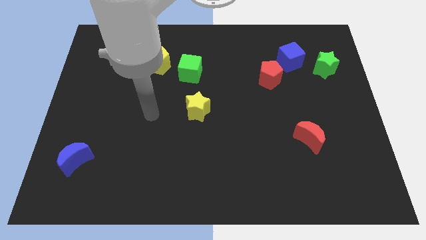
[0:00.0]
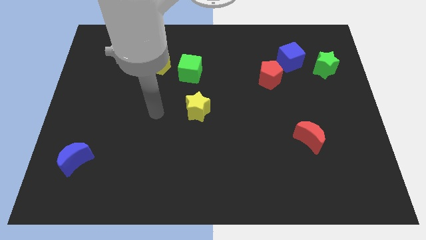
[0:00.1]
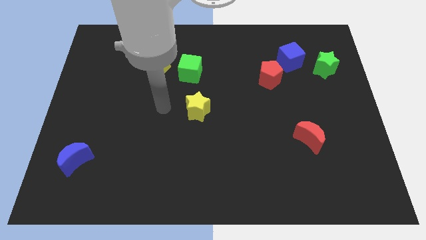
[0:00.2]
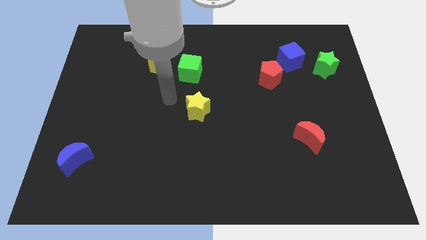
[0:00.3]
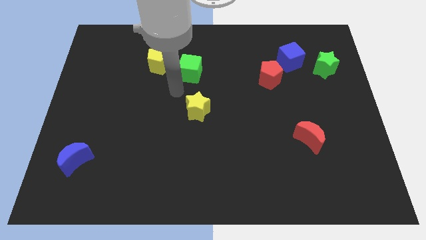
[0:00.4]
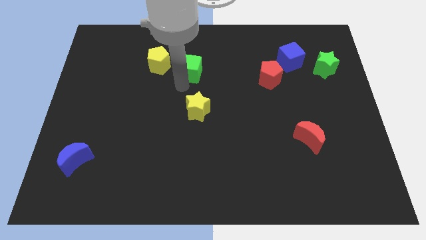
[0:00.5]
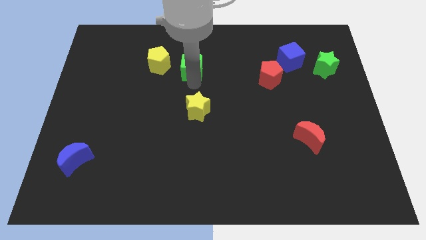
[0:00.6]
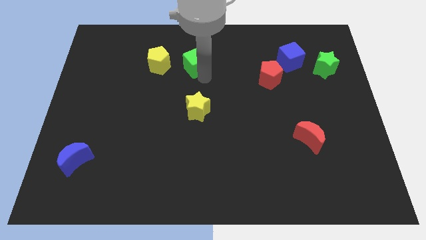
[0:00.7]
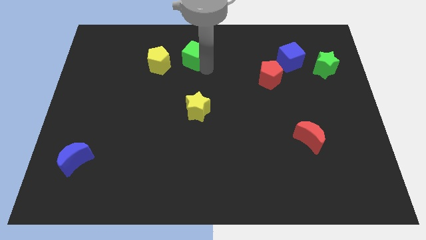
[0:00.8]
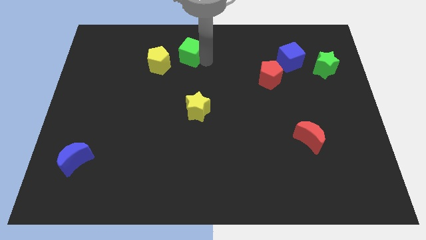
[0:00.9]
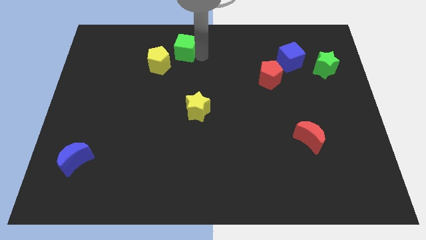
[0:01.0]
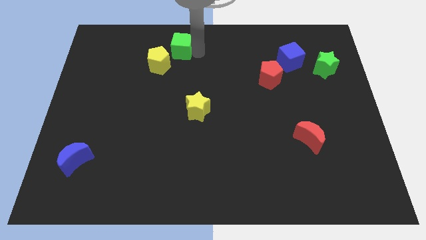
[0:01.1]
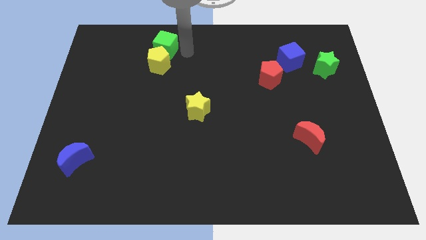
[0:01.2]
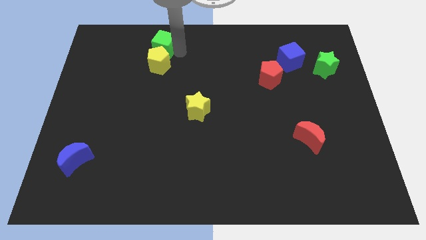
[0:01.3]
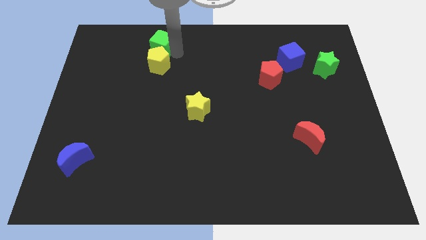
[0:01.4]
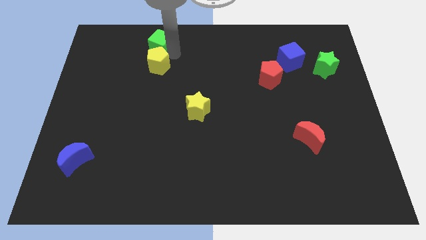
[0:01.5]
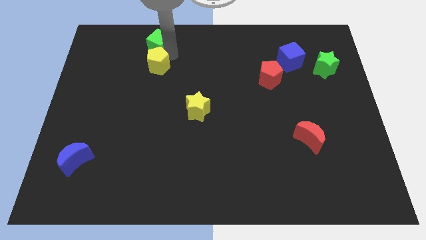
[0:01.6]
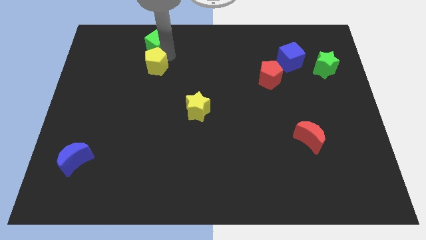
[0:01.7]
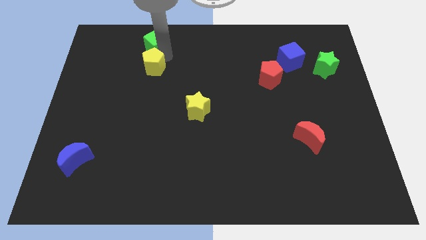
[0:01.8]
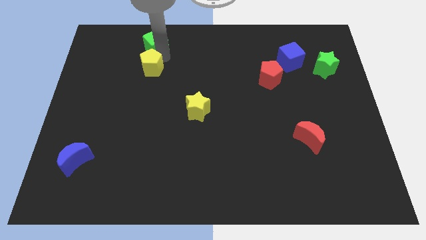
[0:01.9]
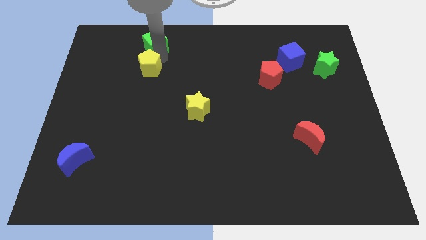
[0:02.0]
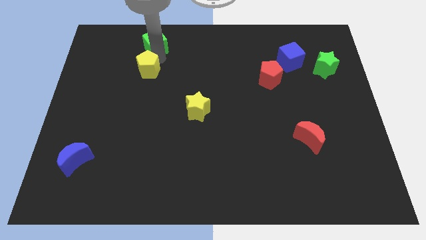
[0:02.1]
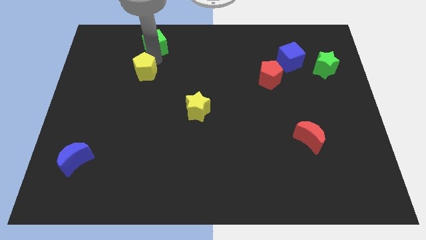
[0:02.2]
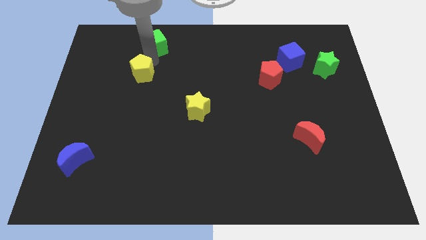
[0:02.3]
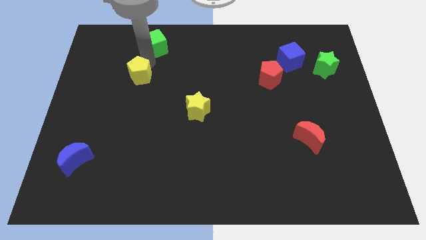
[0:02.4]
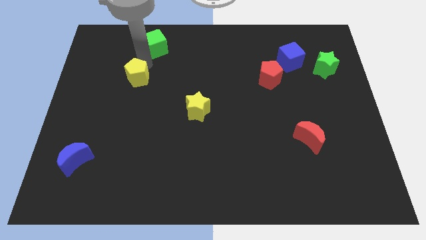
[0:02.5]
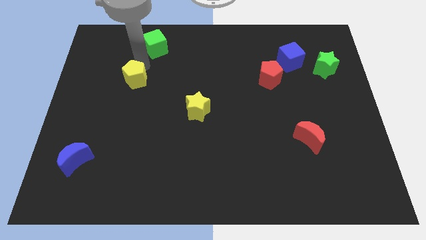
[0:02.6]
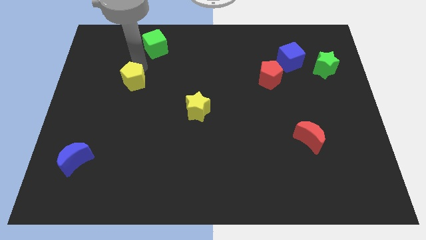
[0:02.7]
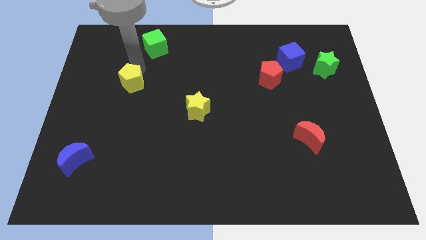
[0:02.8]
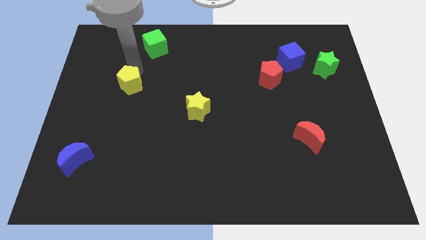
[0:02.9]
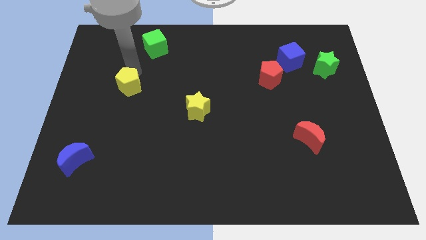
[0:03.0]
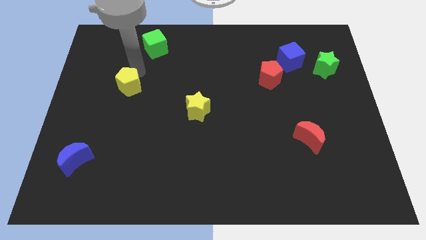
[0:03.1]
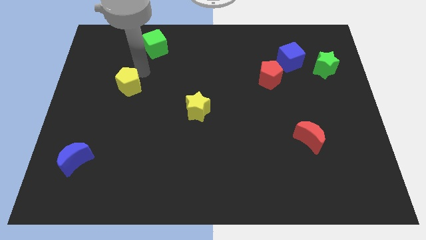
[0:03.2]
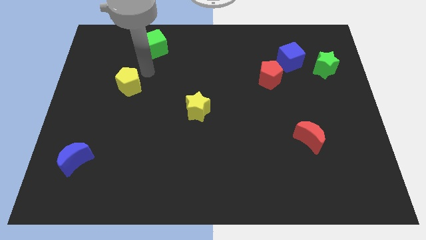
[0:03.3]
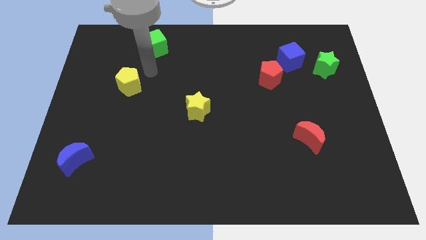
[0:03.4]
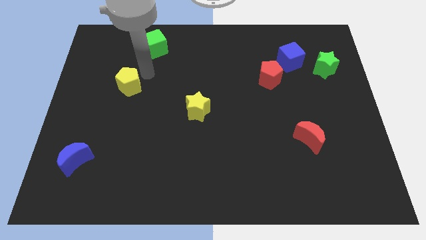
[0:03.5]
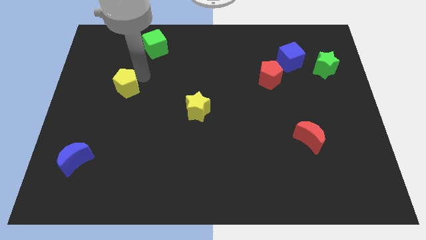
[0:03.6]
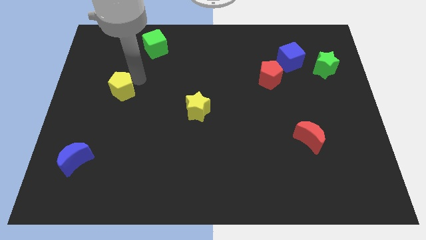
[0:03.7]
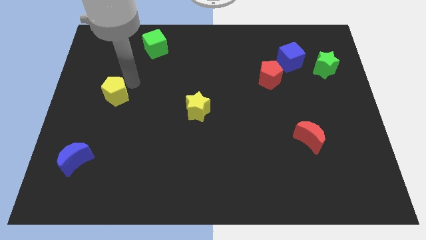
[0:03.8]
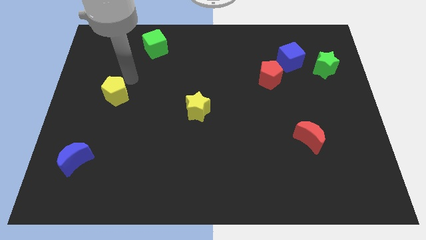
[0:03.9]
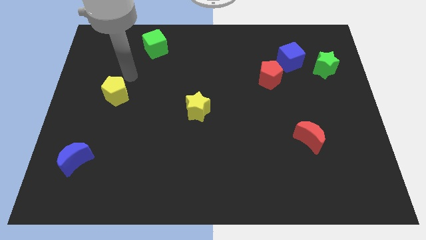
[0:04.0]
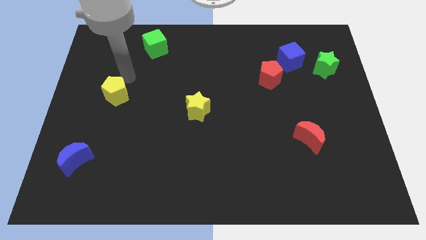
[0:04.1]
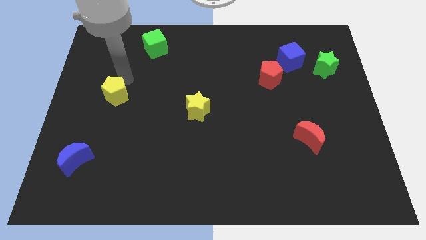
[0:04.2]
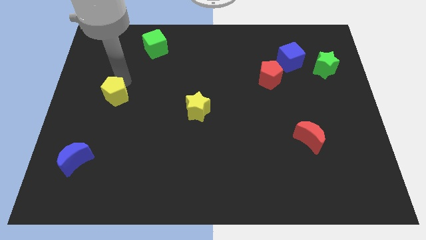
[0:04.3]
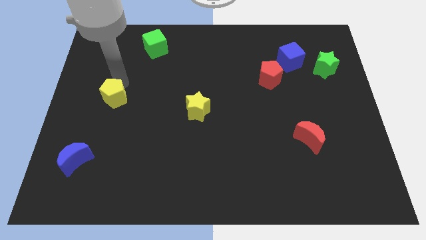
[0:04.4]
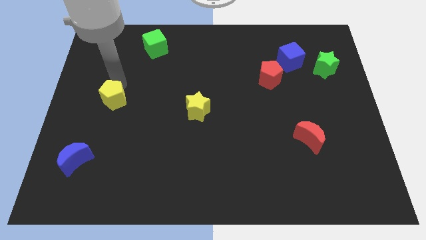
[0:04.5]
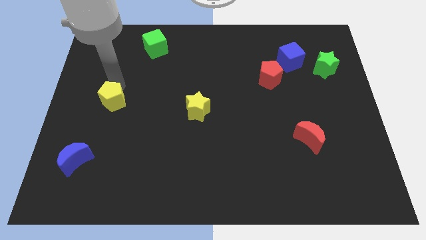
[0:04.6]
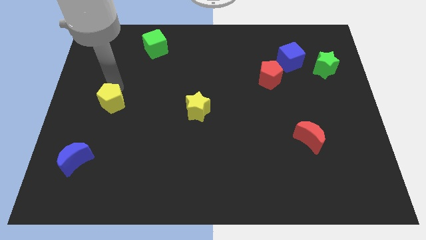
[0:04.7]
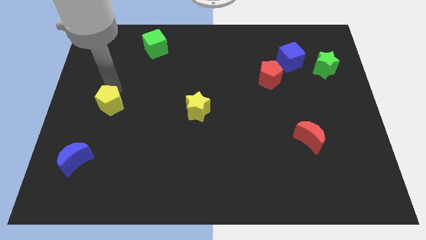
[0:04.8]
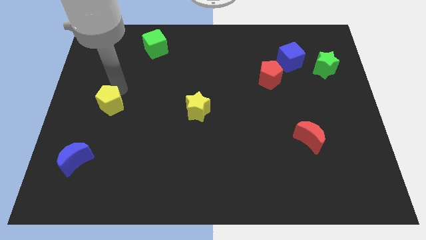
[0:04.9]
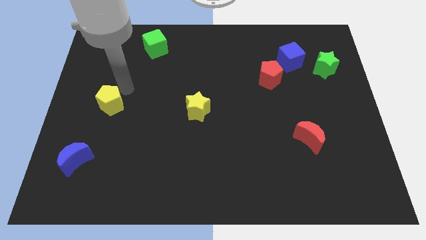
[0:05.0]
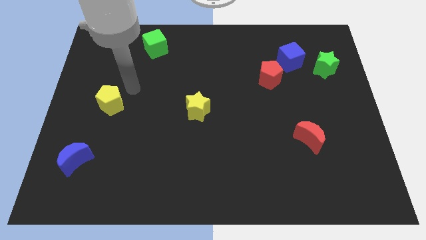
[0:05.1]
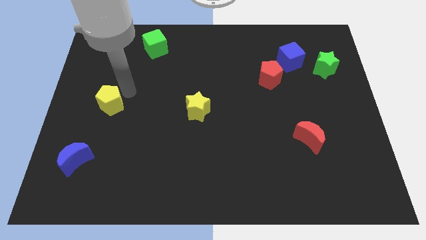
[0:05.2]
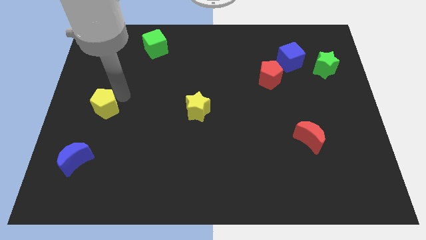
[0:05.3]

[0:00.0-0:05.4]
put the yellow pentagon above the blue moon

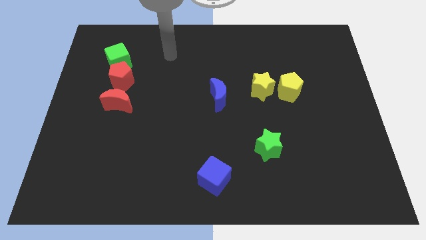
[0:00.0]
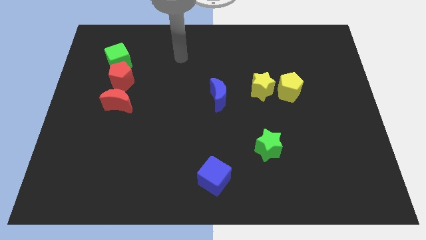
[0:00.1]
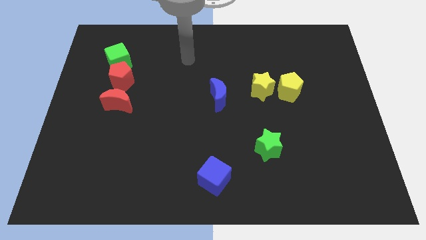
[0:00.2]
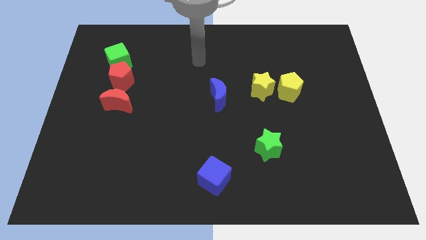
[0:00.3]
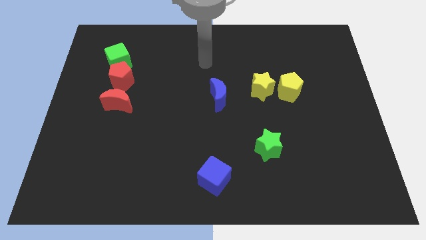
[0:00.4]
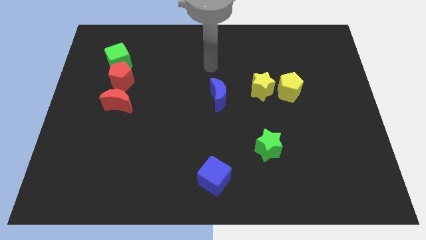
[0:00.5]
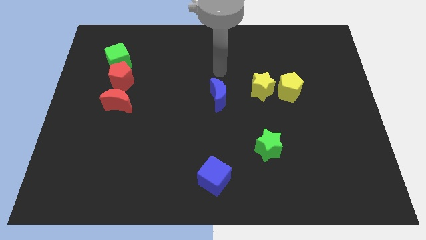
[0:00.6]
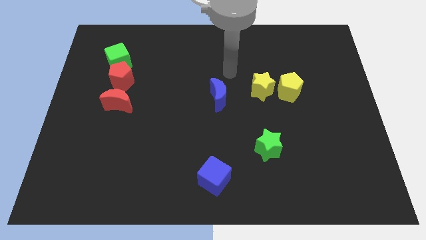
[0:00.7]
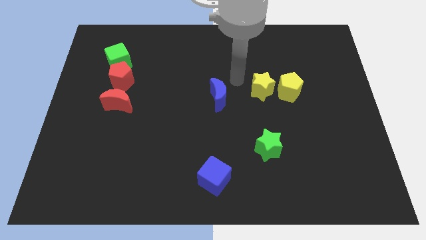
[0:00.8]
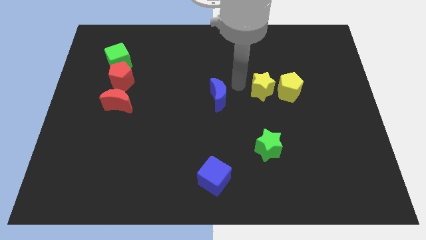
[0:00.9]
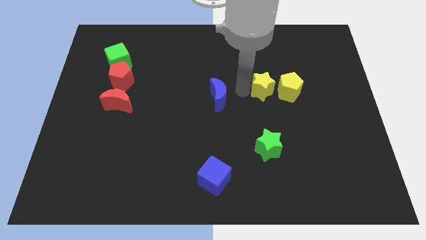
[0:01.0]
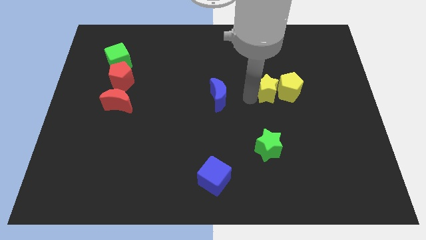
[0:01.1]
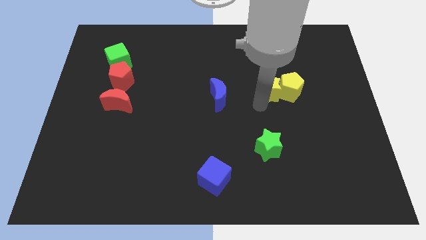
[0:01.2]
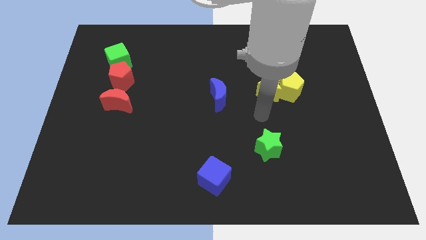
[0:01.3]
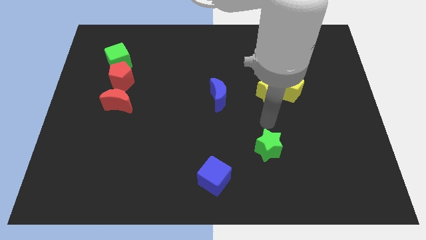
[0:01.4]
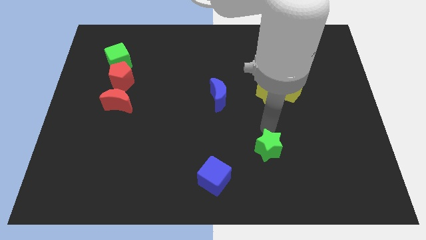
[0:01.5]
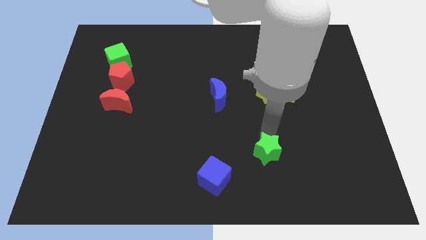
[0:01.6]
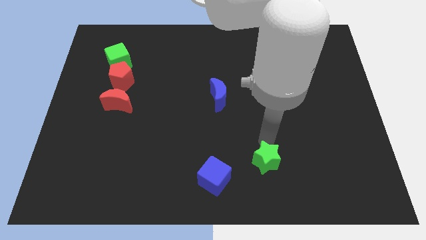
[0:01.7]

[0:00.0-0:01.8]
move the green star just right of the blue cube

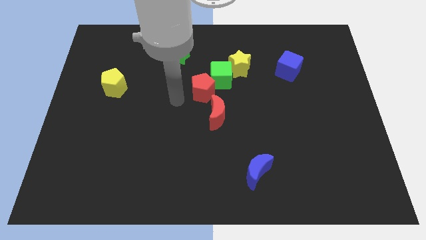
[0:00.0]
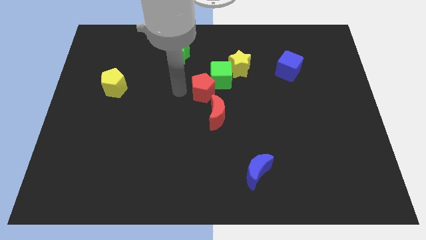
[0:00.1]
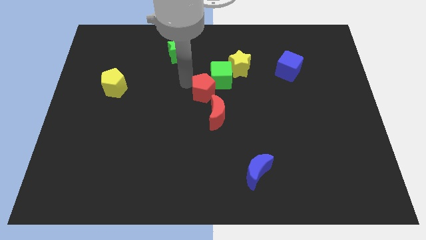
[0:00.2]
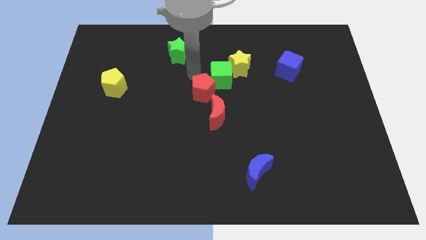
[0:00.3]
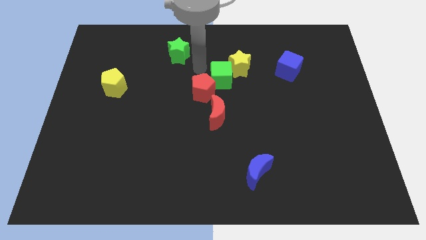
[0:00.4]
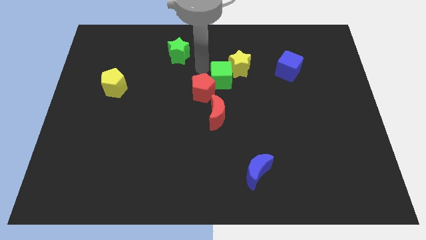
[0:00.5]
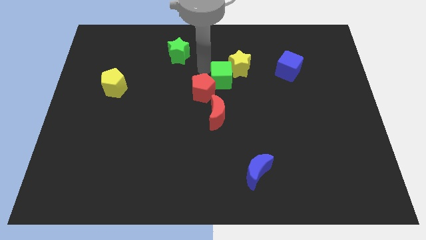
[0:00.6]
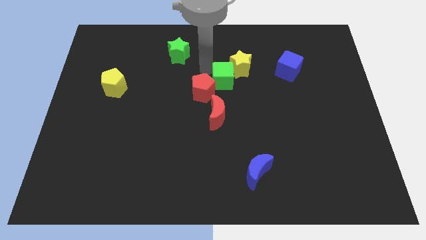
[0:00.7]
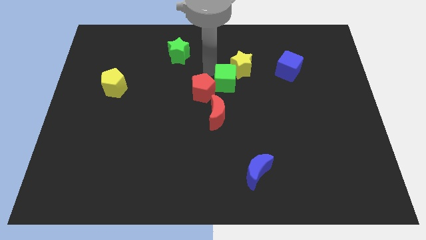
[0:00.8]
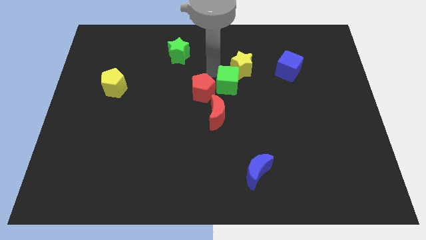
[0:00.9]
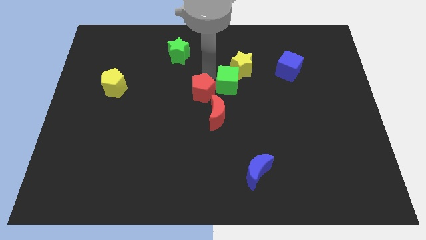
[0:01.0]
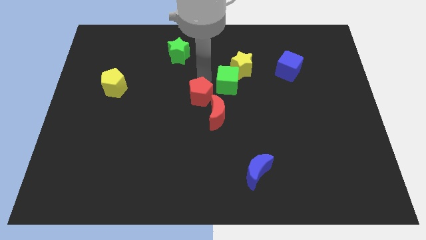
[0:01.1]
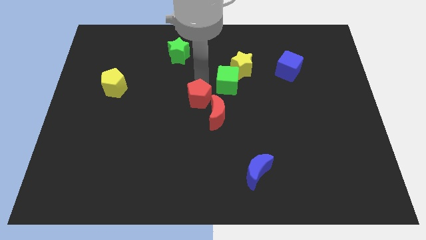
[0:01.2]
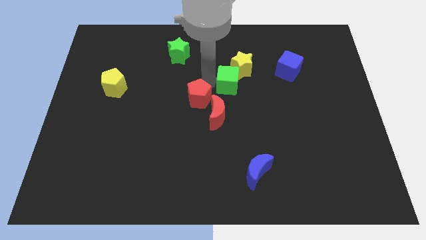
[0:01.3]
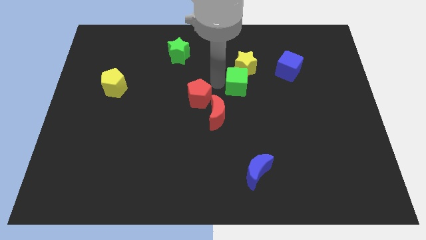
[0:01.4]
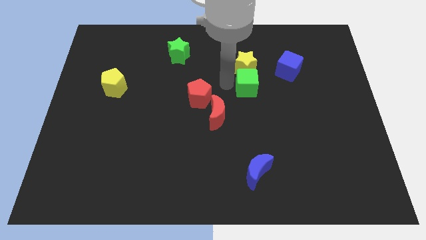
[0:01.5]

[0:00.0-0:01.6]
push the green cube to the bottom right of the yellow star
